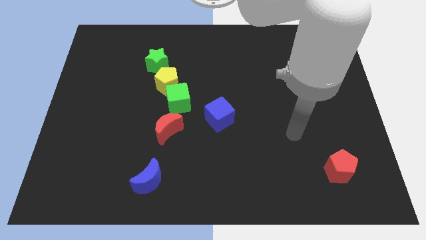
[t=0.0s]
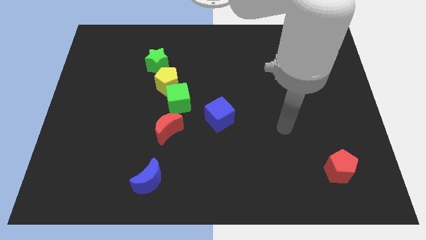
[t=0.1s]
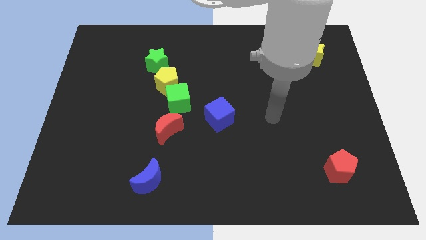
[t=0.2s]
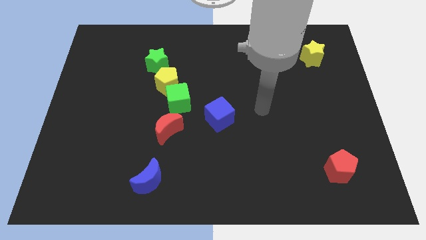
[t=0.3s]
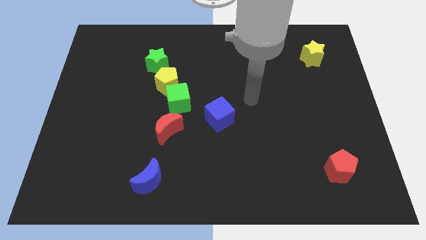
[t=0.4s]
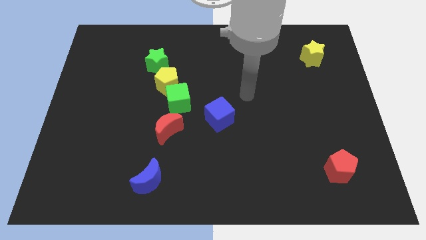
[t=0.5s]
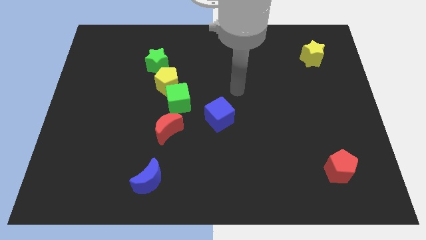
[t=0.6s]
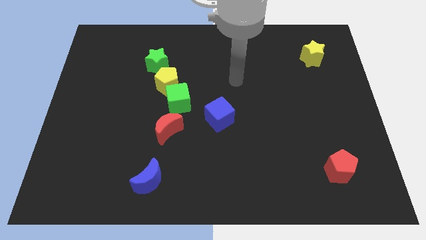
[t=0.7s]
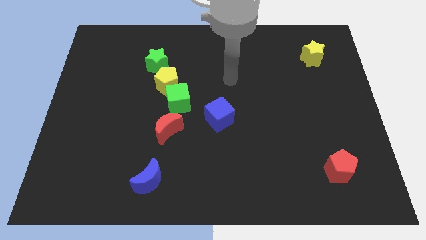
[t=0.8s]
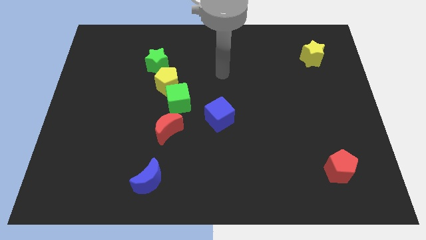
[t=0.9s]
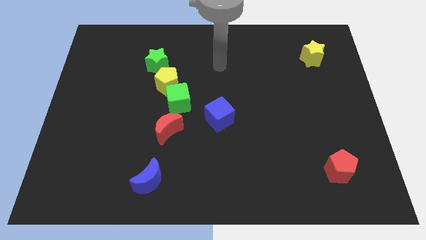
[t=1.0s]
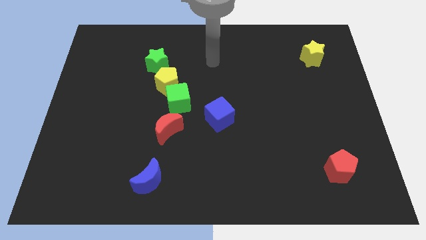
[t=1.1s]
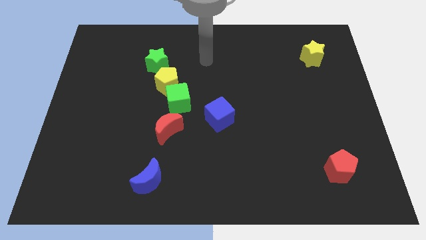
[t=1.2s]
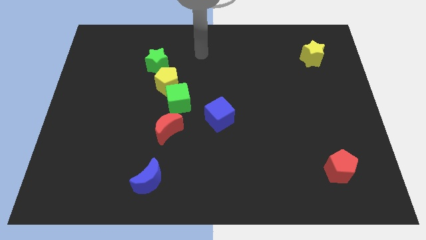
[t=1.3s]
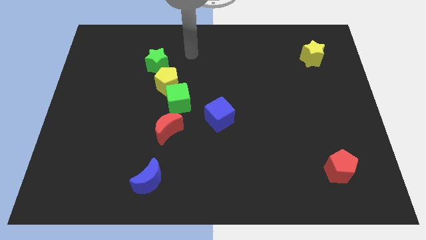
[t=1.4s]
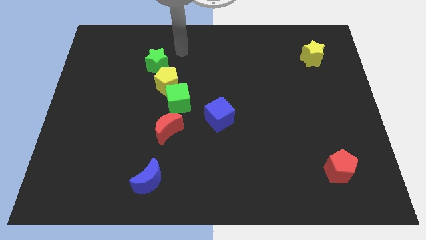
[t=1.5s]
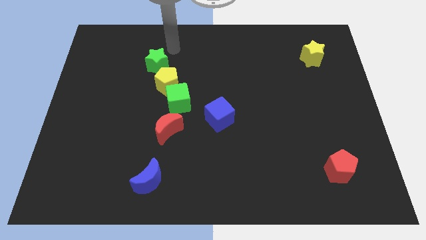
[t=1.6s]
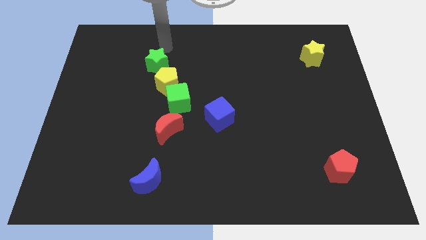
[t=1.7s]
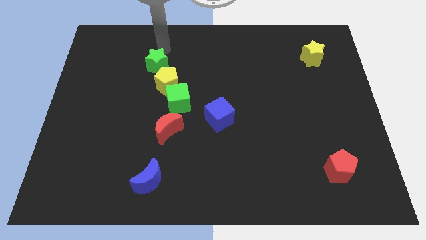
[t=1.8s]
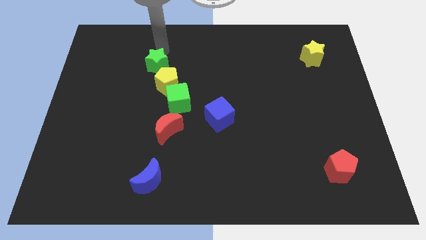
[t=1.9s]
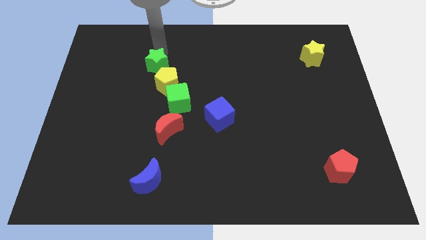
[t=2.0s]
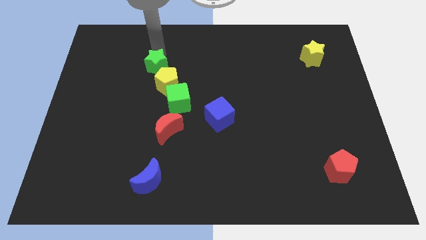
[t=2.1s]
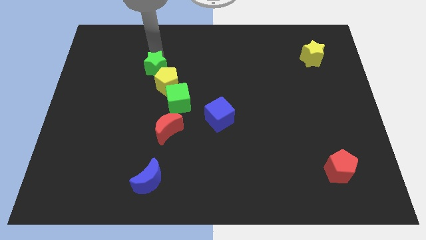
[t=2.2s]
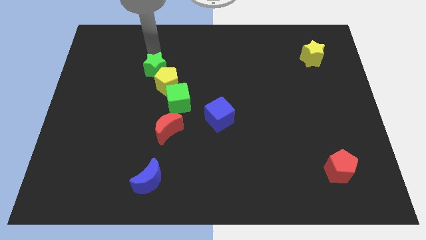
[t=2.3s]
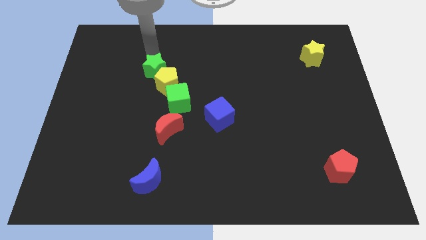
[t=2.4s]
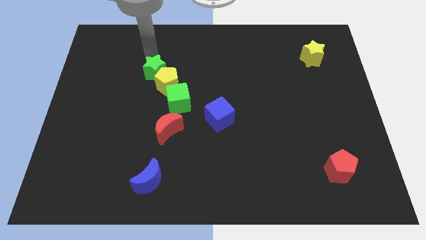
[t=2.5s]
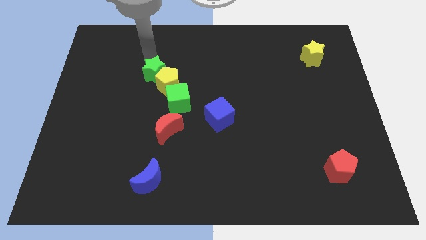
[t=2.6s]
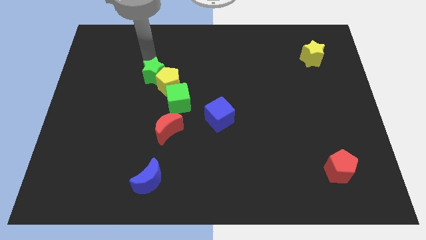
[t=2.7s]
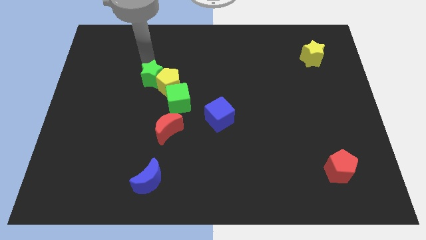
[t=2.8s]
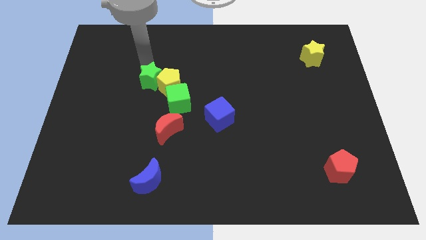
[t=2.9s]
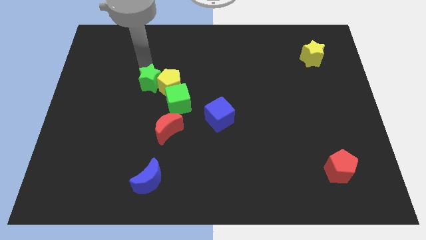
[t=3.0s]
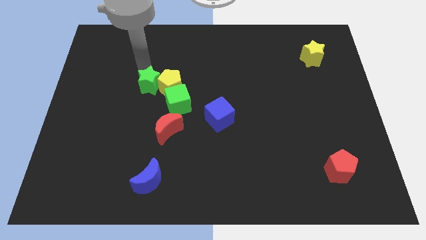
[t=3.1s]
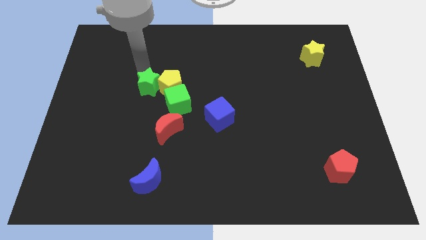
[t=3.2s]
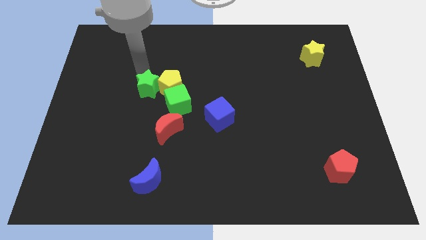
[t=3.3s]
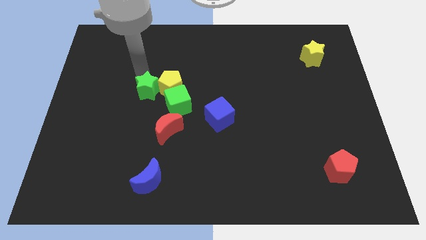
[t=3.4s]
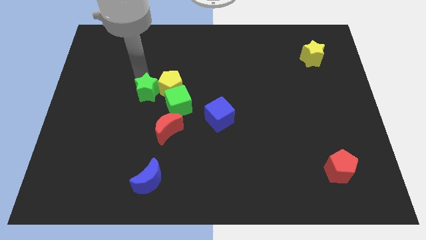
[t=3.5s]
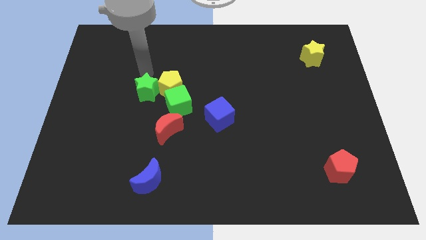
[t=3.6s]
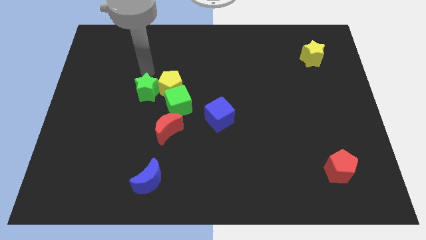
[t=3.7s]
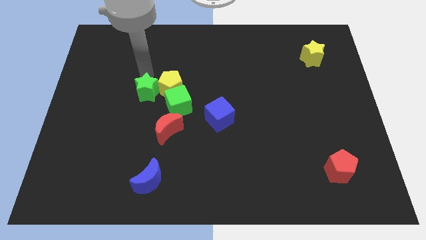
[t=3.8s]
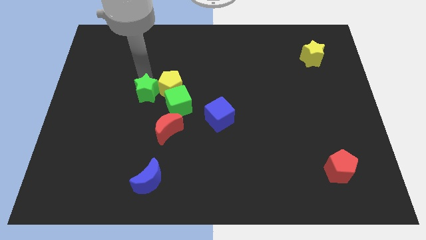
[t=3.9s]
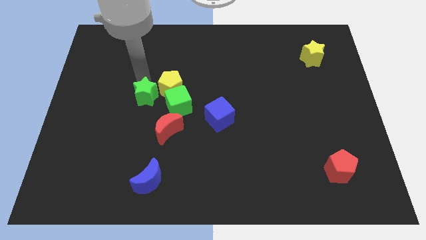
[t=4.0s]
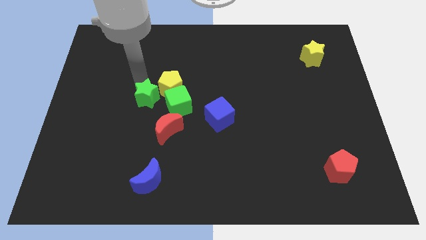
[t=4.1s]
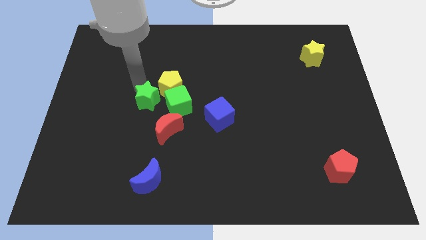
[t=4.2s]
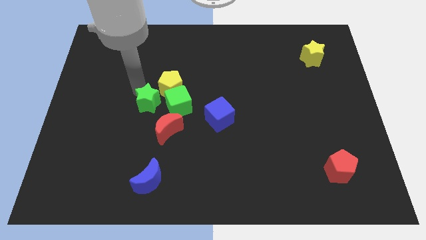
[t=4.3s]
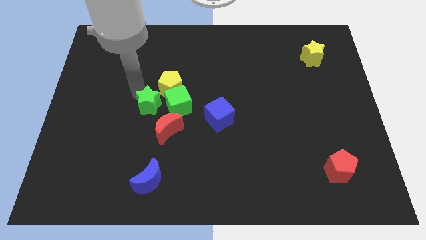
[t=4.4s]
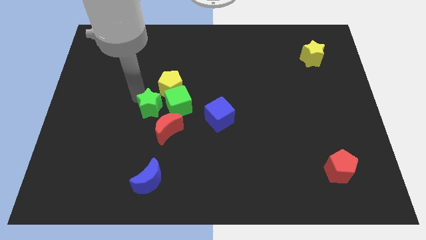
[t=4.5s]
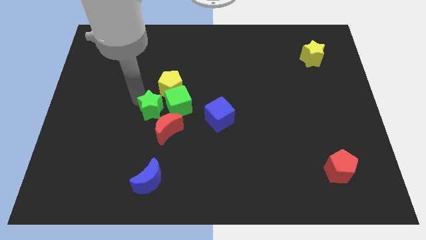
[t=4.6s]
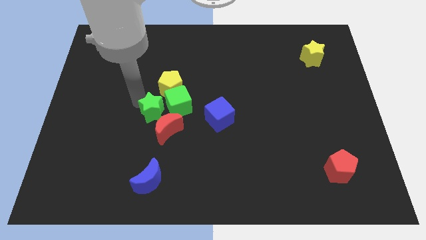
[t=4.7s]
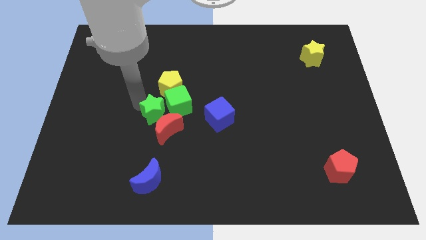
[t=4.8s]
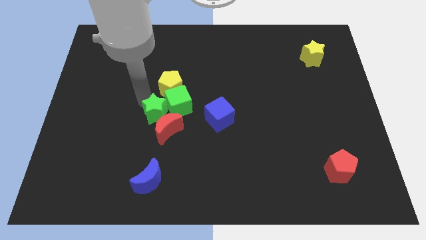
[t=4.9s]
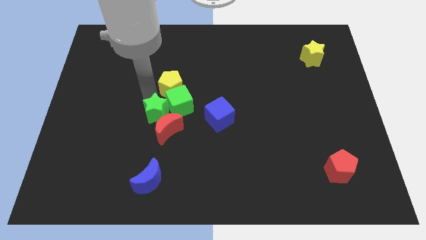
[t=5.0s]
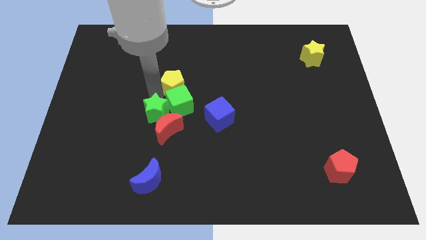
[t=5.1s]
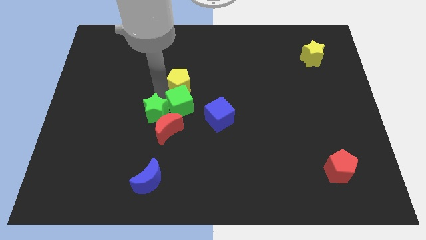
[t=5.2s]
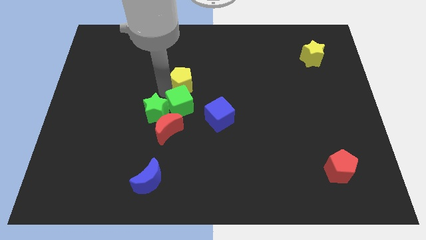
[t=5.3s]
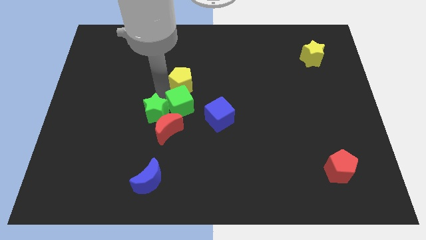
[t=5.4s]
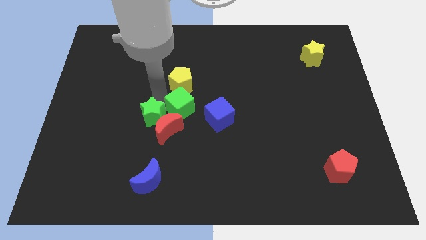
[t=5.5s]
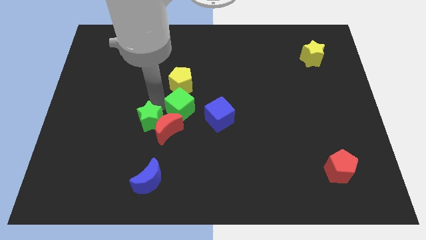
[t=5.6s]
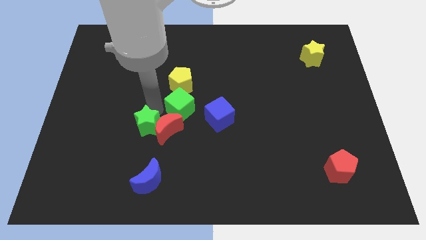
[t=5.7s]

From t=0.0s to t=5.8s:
push the green star diagonally down and to the left of the red moon

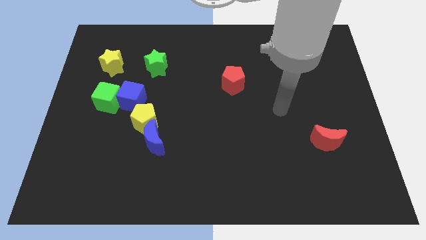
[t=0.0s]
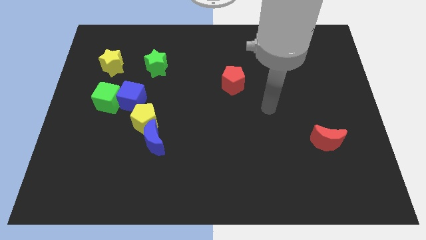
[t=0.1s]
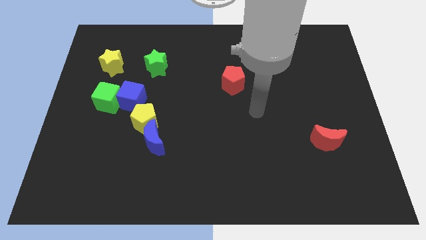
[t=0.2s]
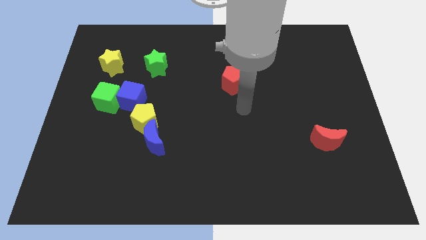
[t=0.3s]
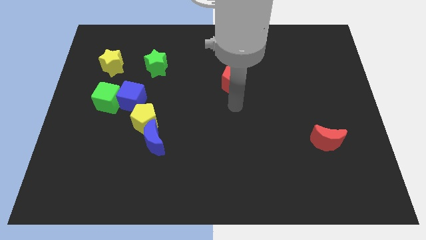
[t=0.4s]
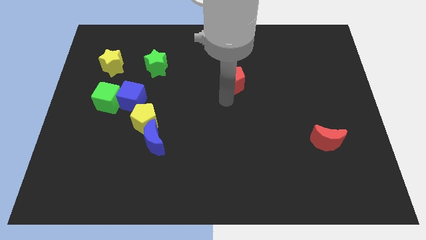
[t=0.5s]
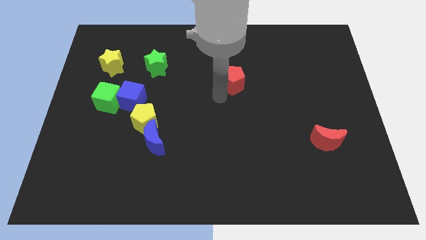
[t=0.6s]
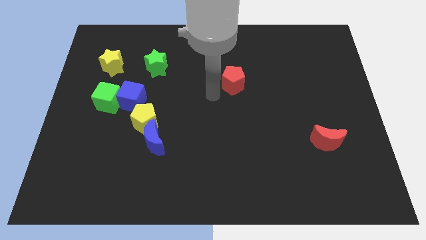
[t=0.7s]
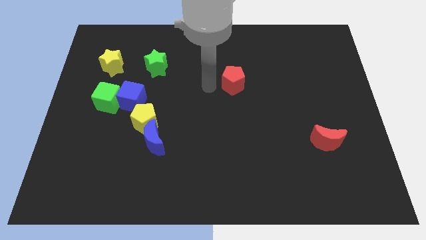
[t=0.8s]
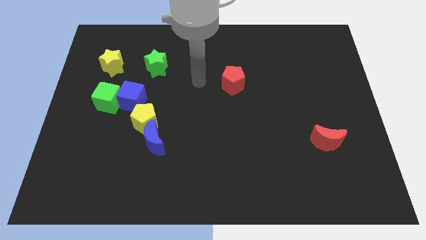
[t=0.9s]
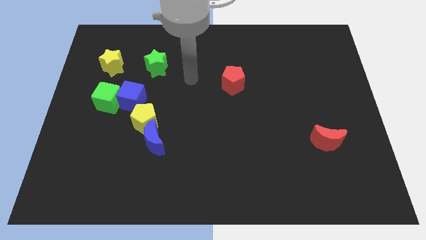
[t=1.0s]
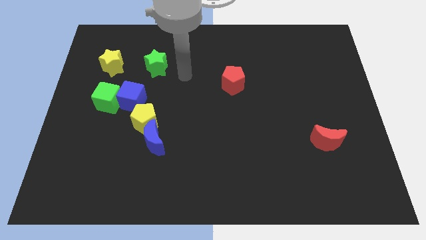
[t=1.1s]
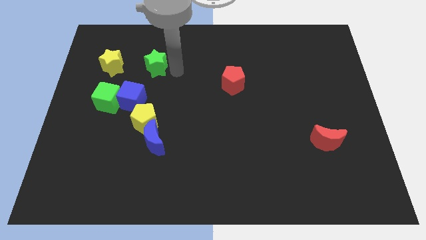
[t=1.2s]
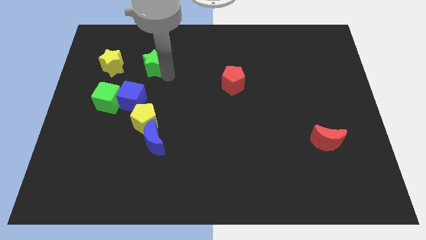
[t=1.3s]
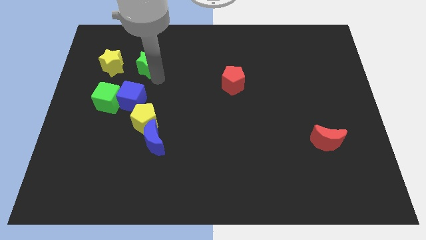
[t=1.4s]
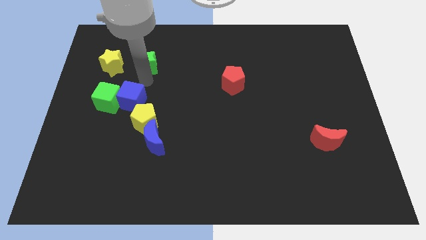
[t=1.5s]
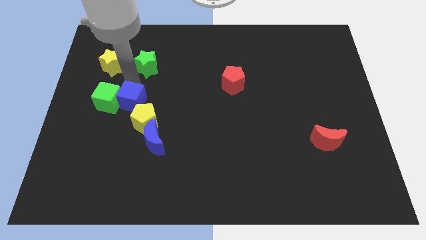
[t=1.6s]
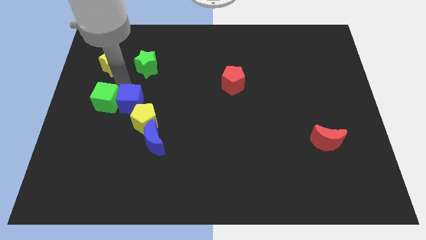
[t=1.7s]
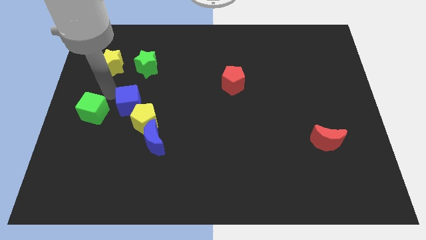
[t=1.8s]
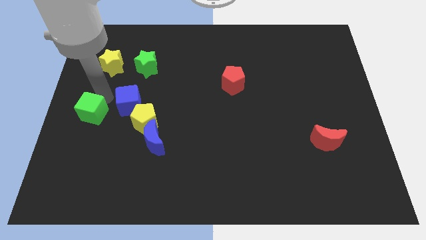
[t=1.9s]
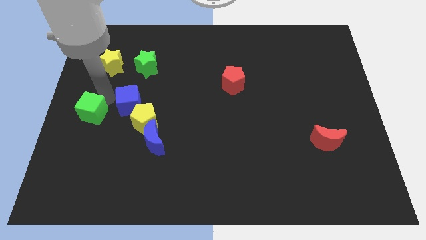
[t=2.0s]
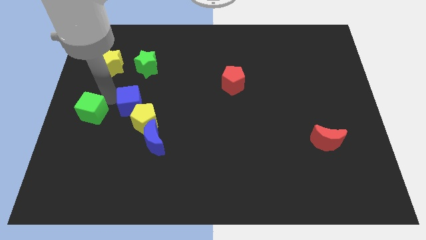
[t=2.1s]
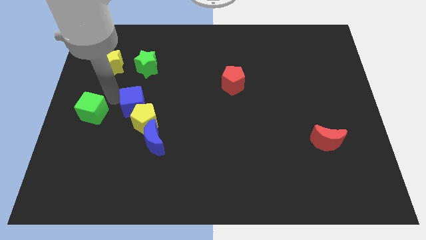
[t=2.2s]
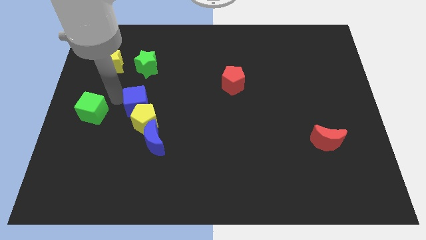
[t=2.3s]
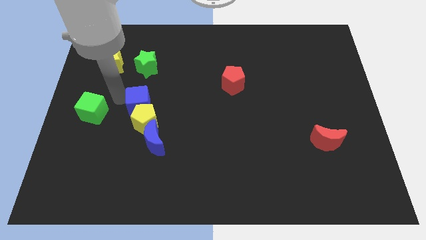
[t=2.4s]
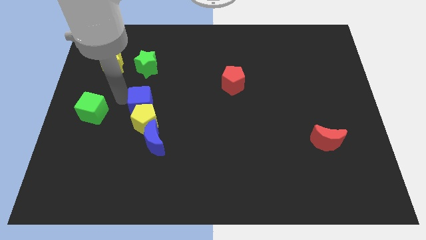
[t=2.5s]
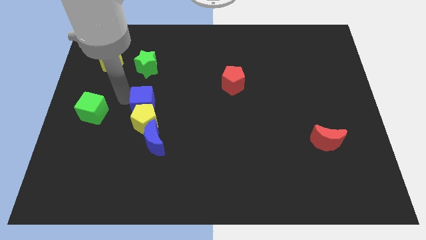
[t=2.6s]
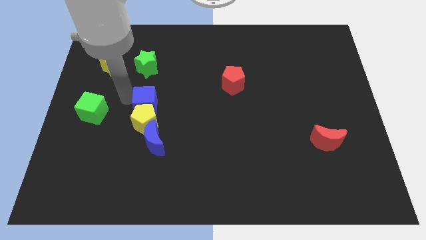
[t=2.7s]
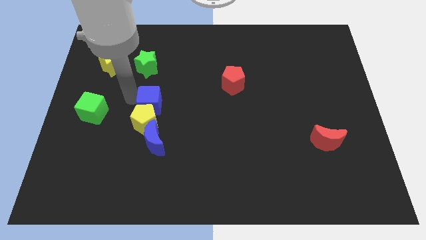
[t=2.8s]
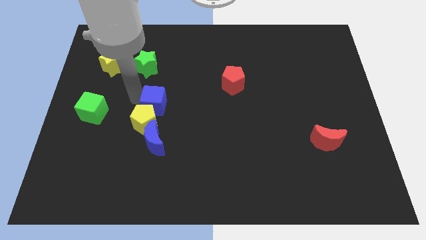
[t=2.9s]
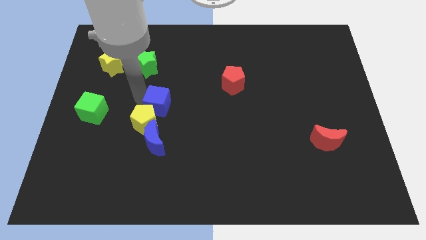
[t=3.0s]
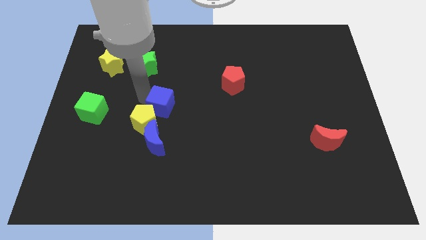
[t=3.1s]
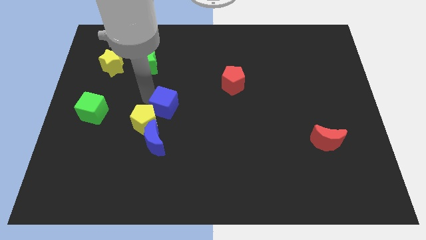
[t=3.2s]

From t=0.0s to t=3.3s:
slide the blue cube to the right of the yellow pentagon
